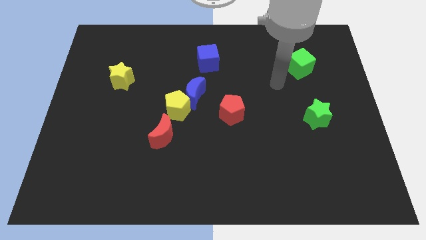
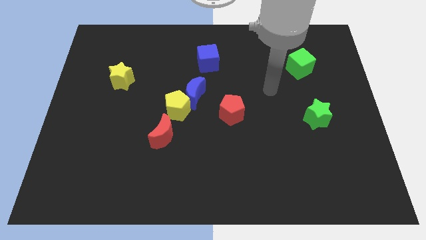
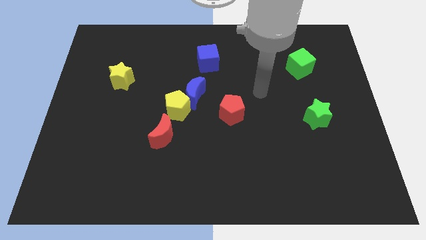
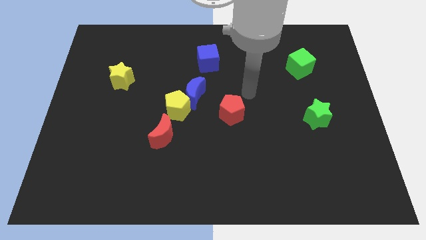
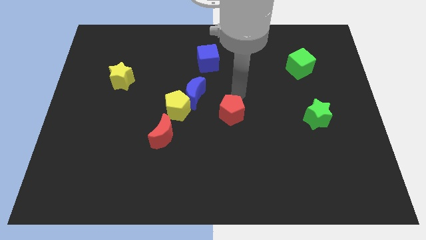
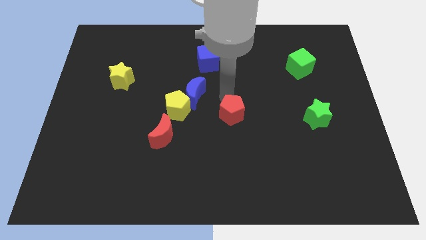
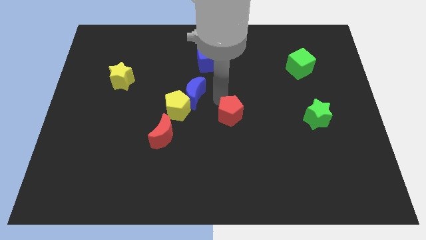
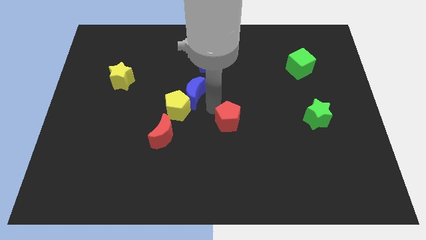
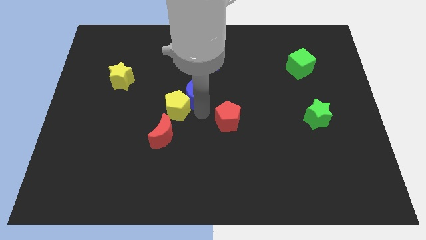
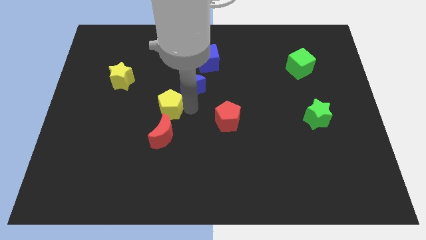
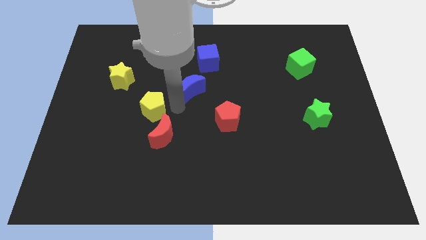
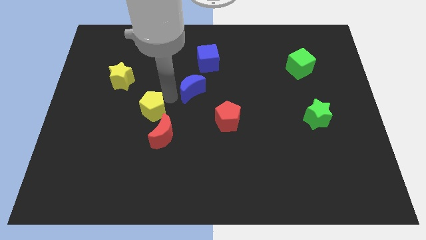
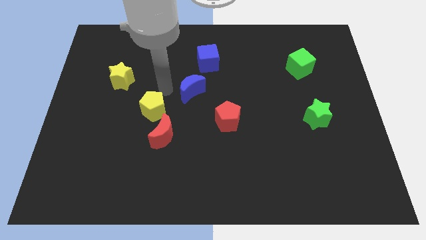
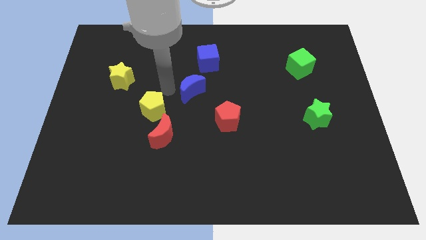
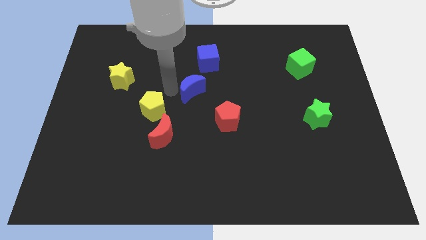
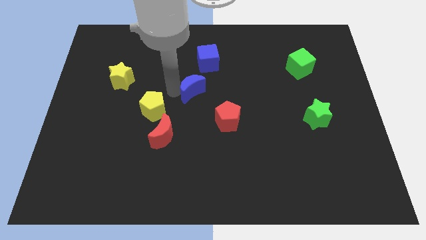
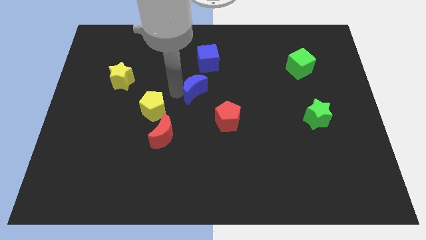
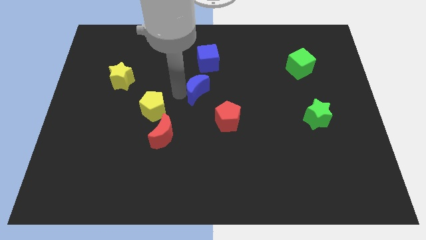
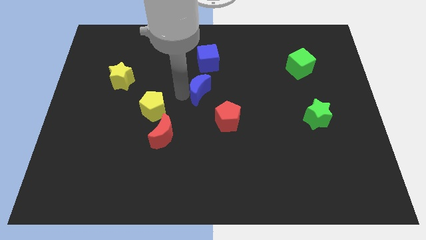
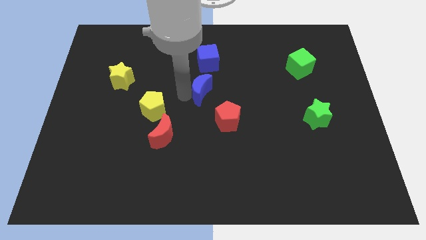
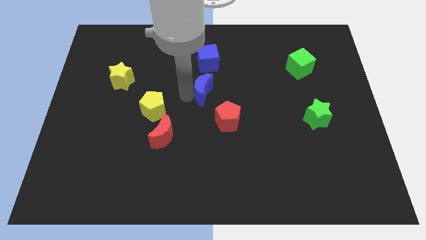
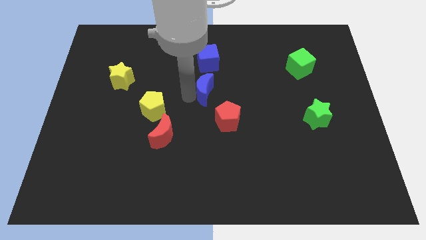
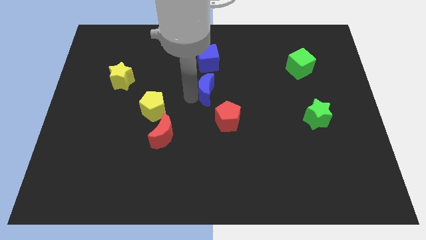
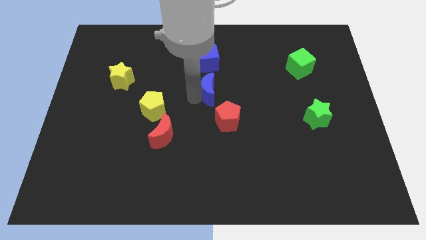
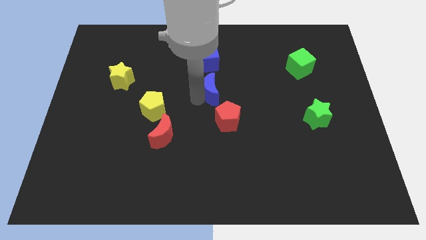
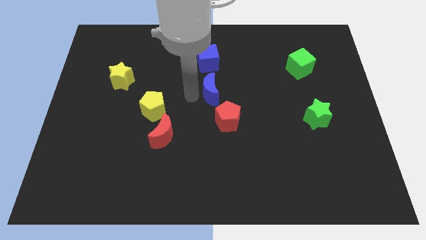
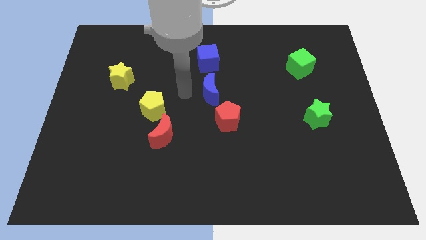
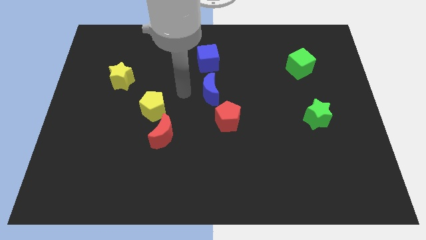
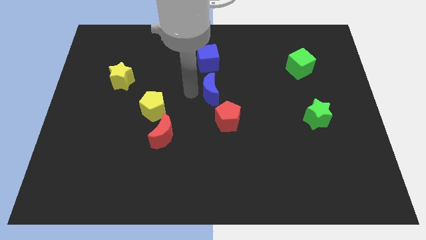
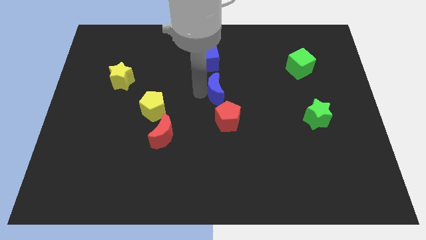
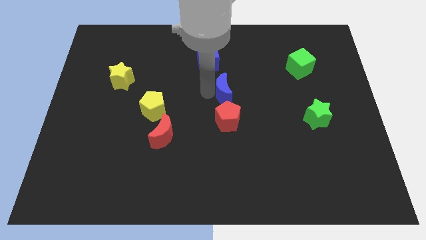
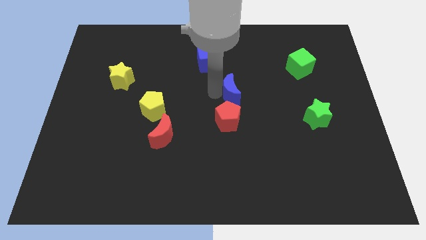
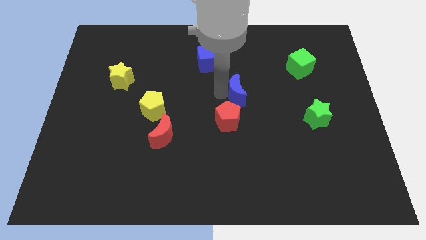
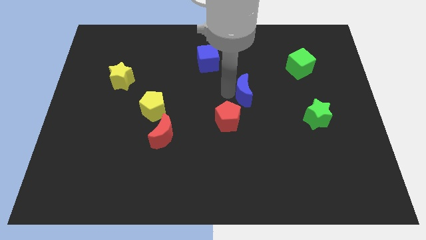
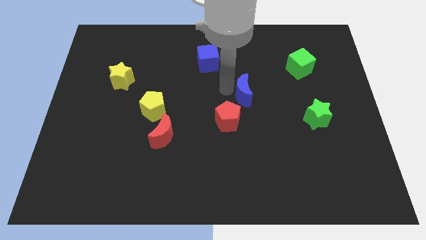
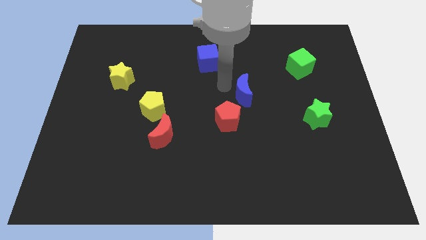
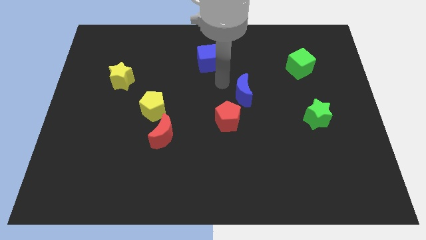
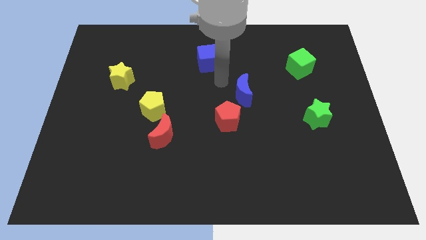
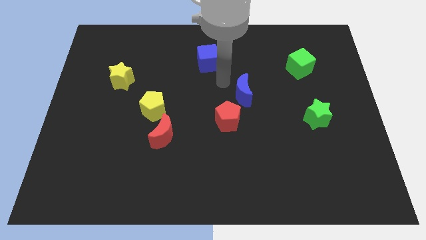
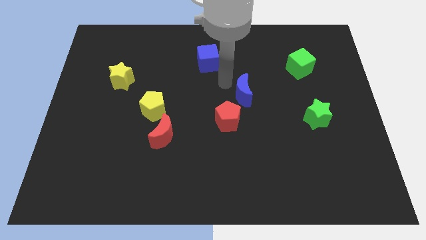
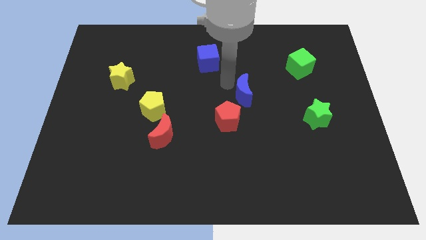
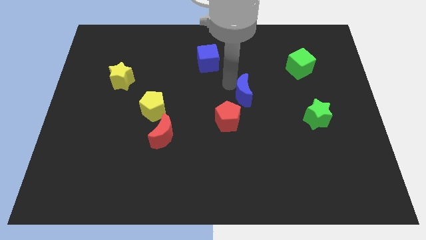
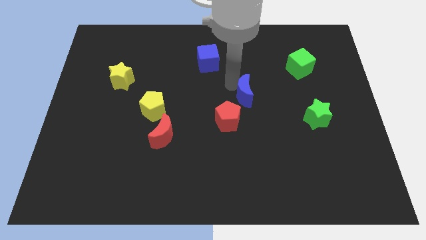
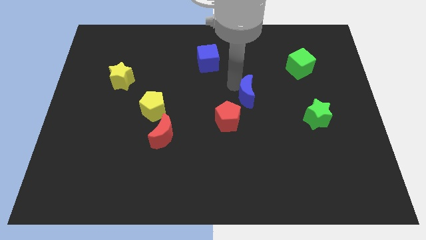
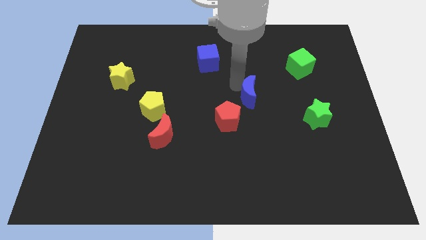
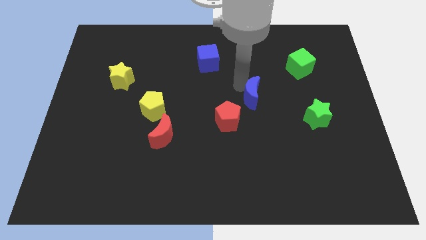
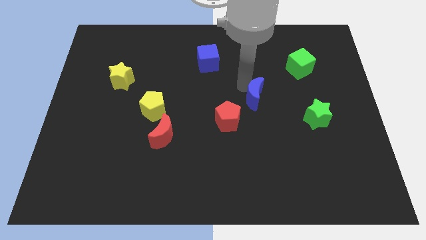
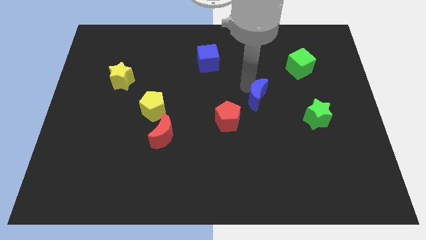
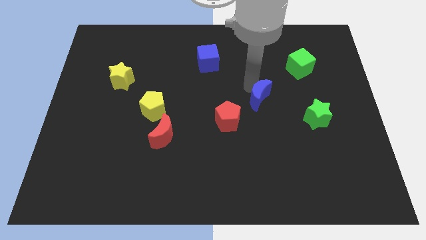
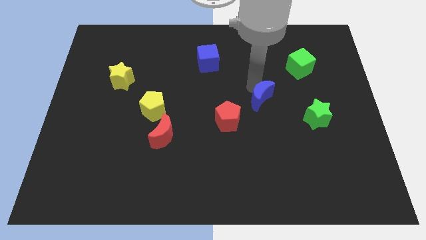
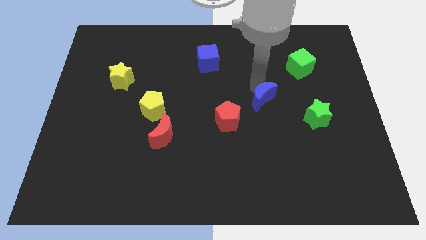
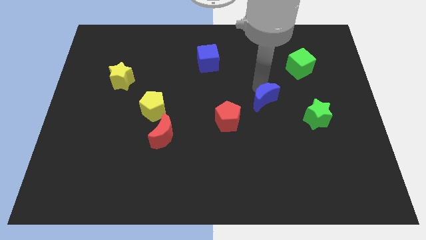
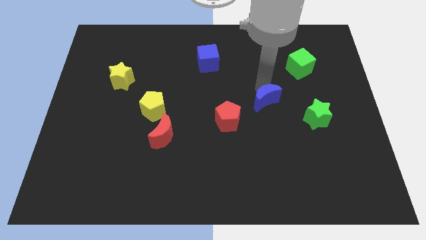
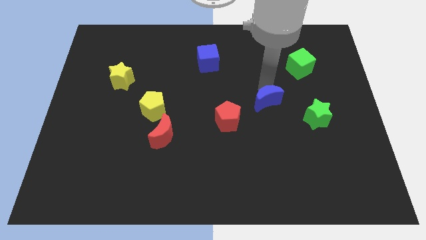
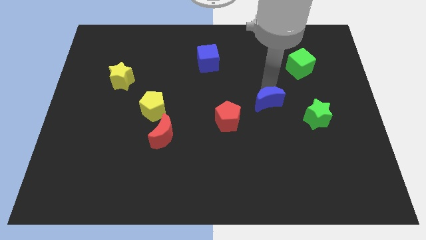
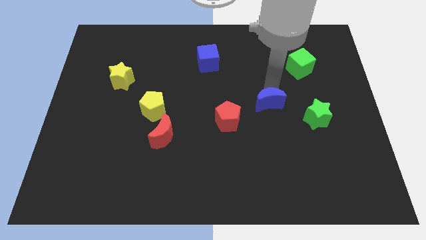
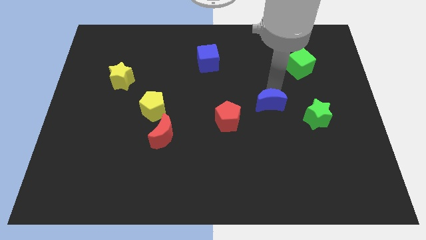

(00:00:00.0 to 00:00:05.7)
move the blue moon to the right side of the red pentagon

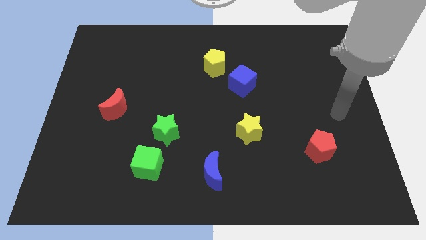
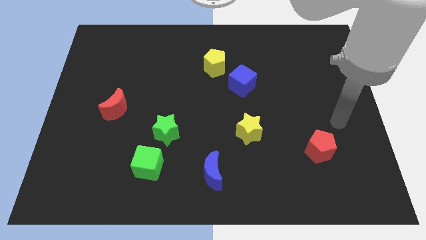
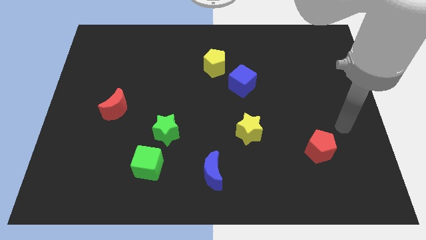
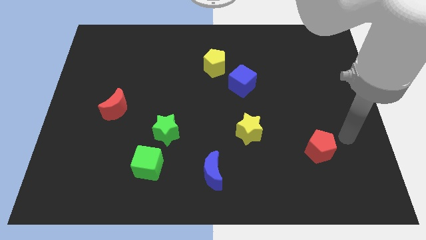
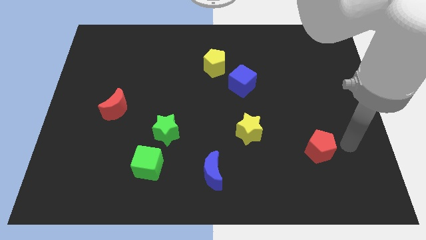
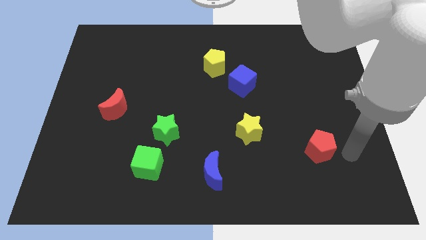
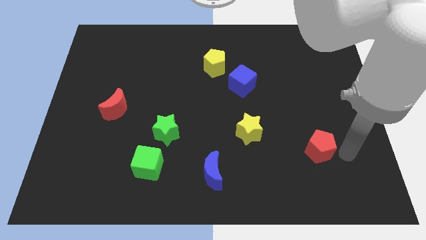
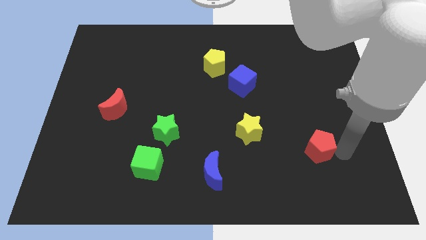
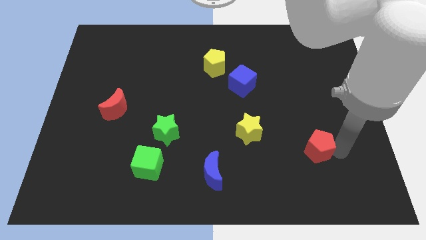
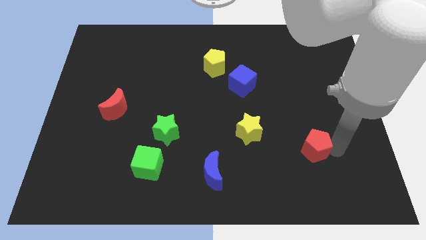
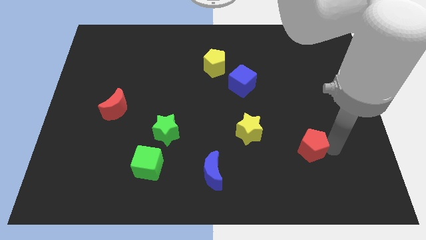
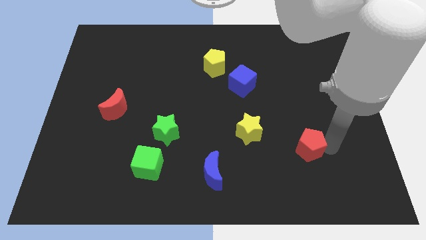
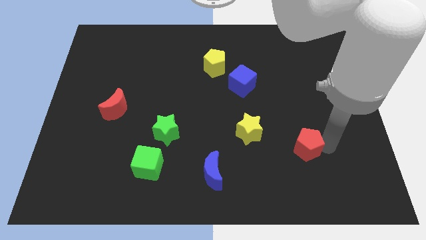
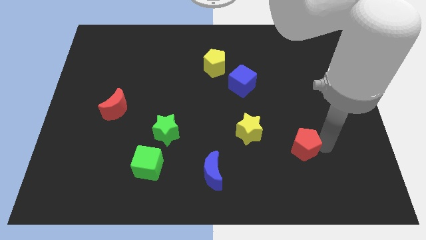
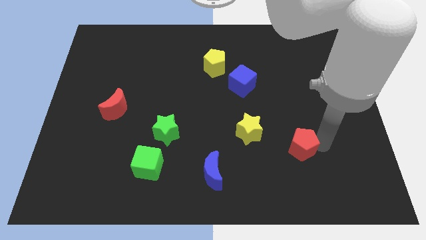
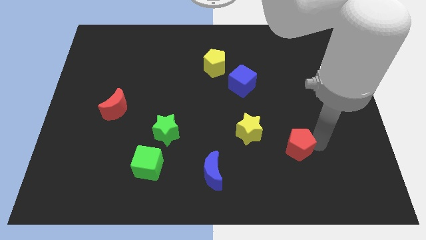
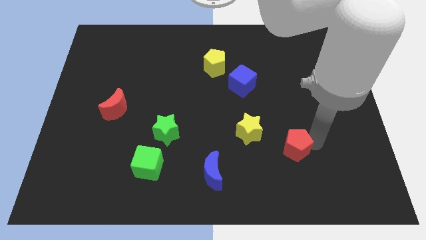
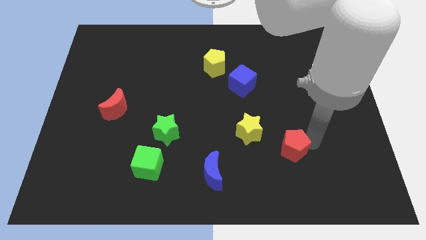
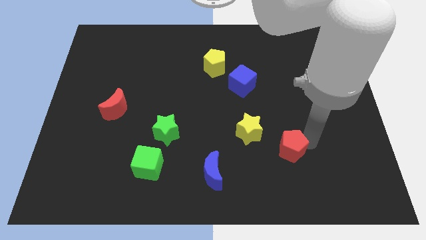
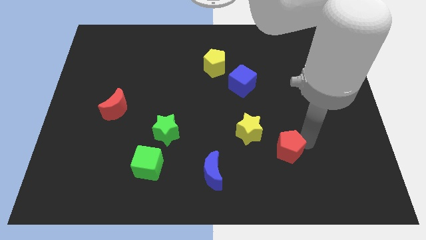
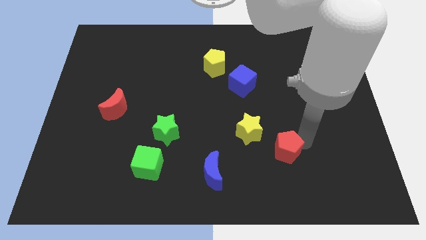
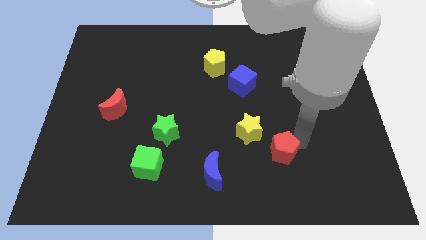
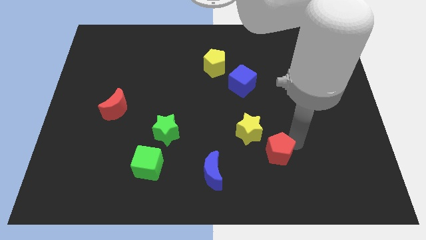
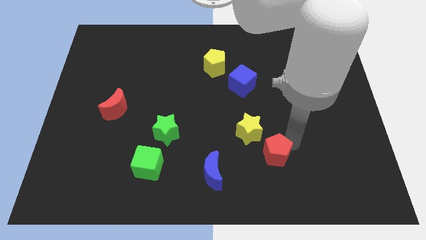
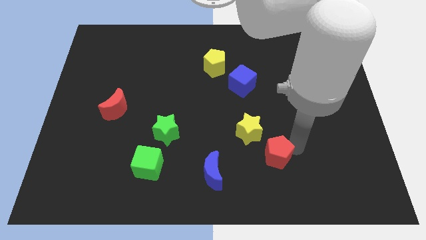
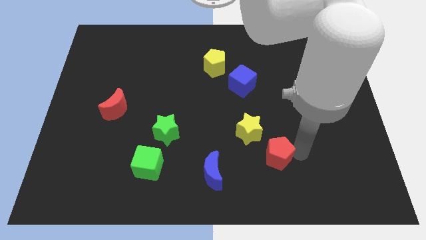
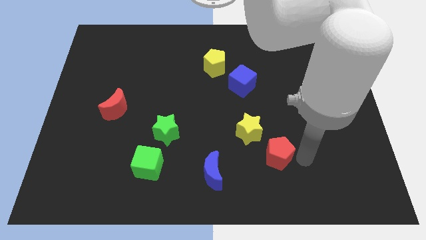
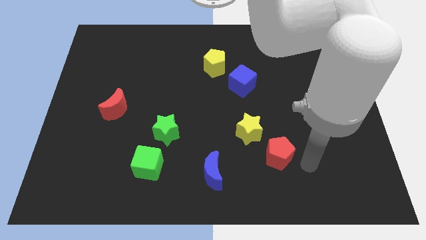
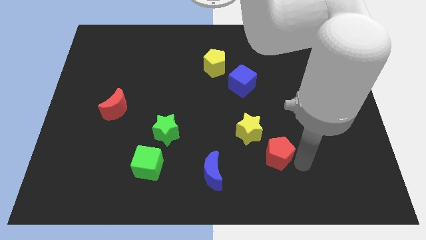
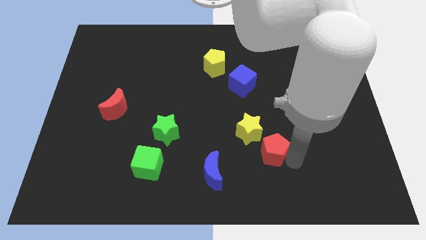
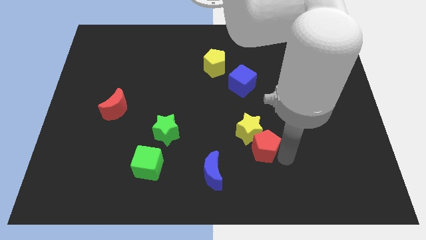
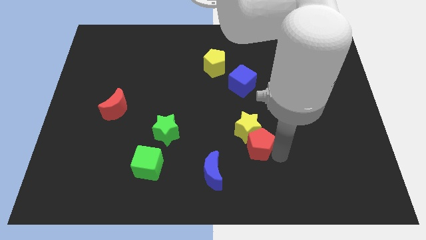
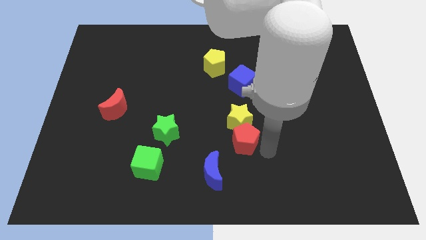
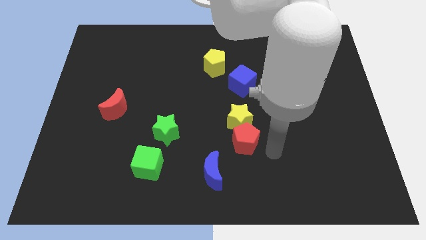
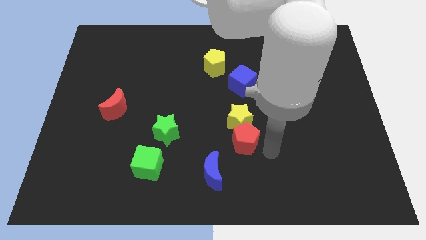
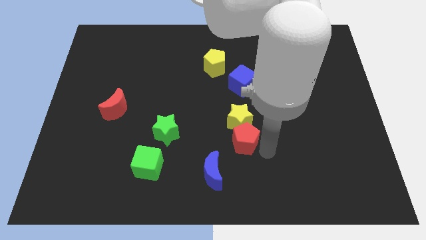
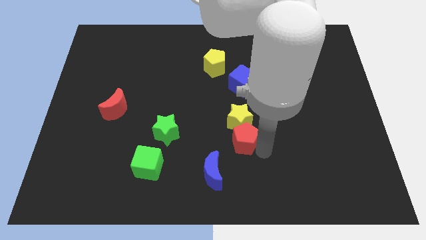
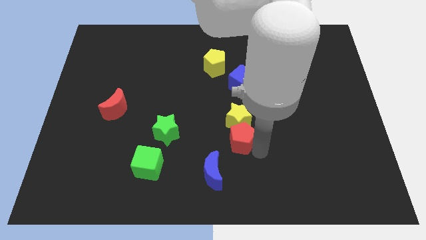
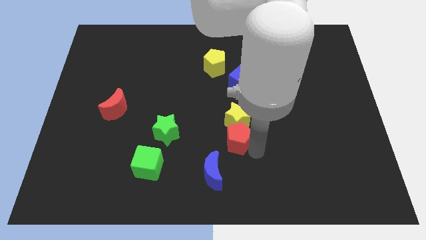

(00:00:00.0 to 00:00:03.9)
push the red pentagon to the right side of the green star
